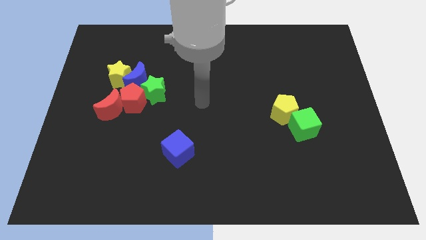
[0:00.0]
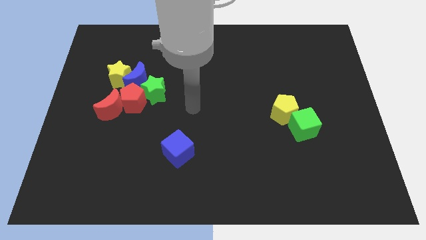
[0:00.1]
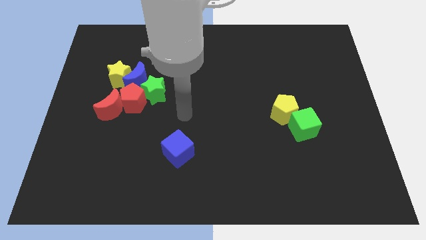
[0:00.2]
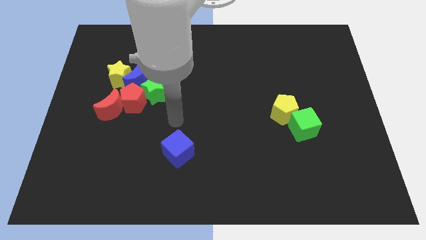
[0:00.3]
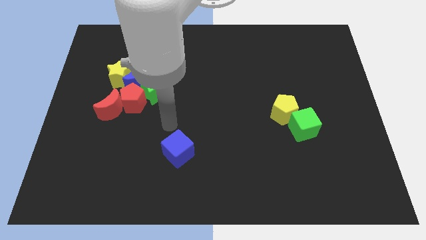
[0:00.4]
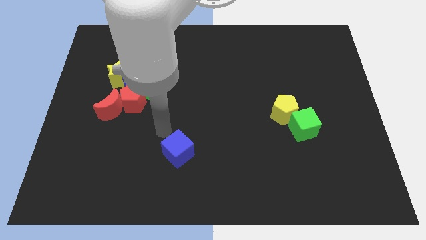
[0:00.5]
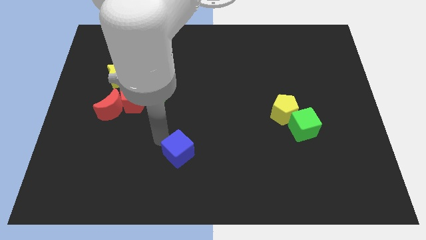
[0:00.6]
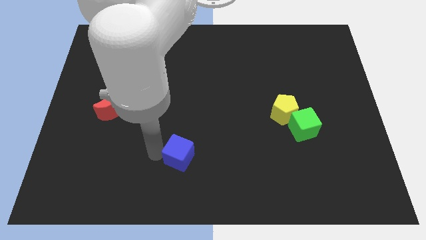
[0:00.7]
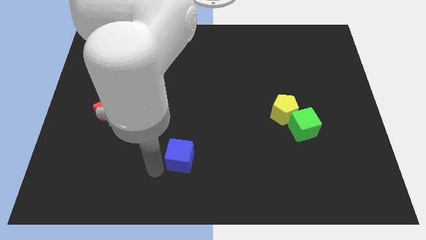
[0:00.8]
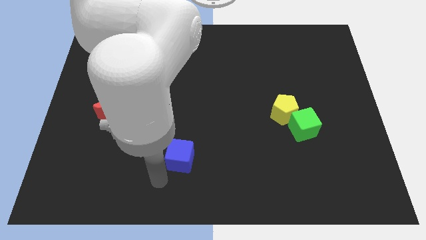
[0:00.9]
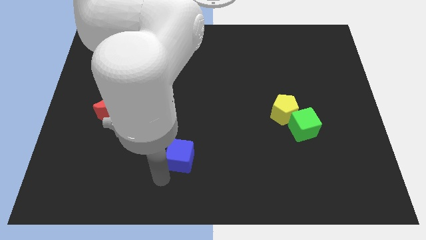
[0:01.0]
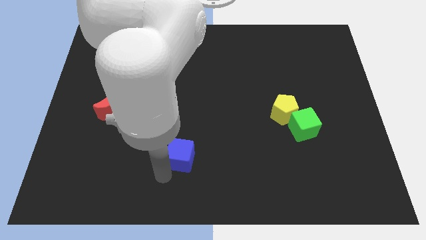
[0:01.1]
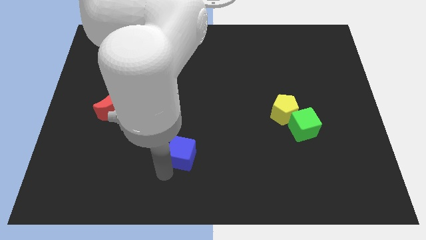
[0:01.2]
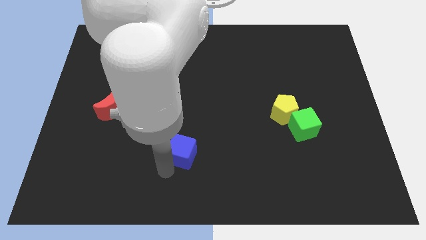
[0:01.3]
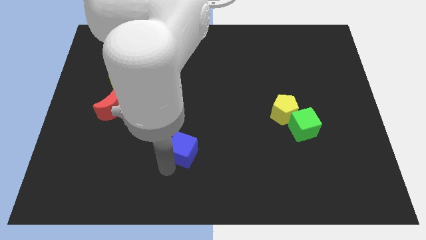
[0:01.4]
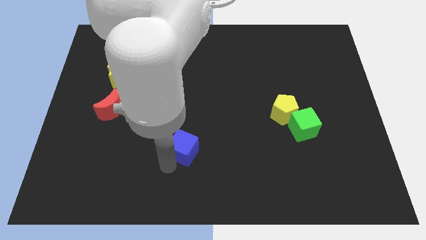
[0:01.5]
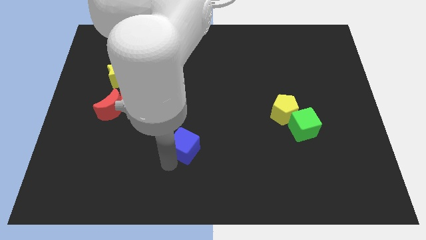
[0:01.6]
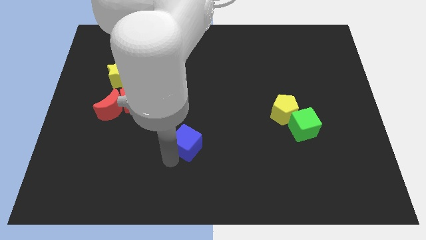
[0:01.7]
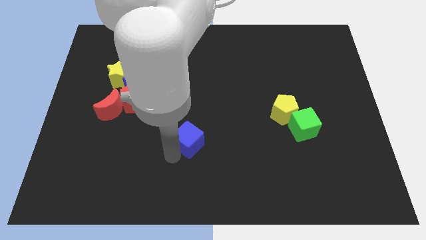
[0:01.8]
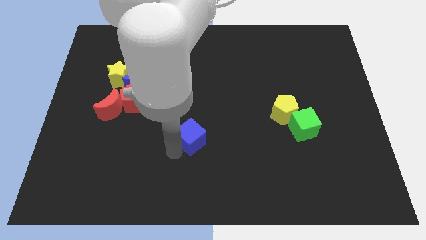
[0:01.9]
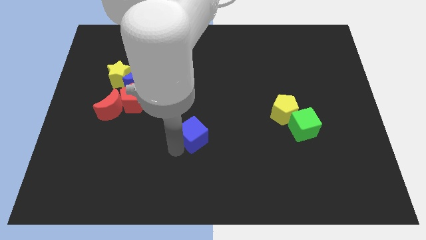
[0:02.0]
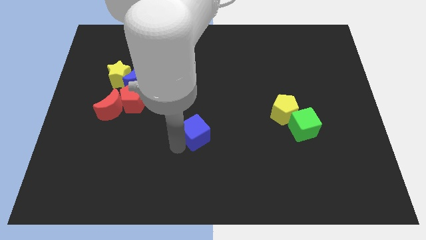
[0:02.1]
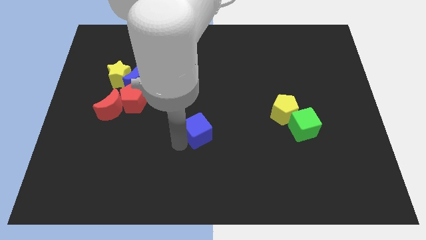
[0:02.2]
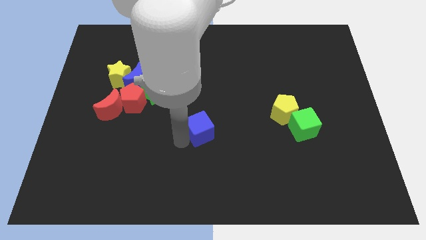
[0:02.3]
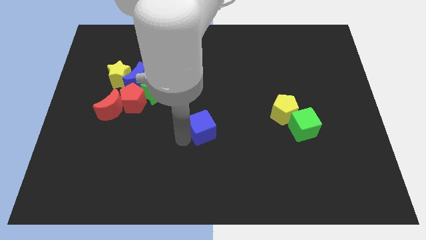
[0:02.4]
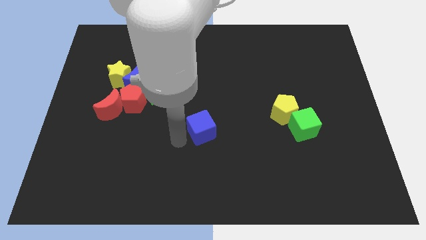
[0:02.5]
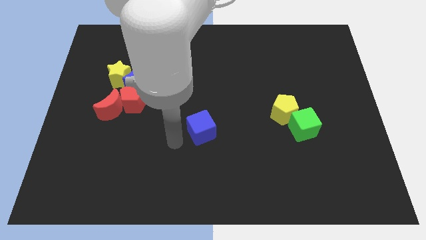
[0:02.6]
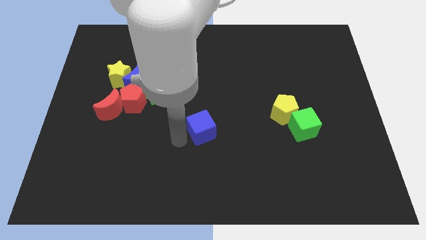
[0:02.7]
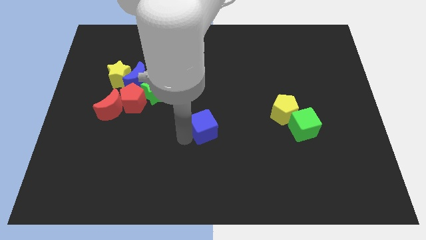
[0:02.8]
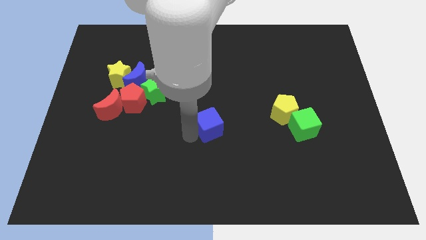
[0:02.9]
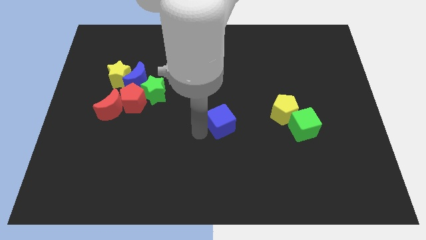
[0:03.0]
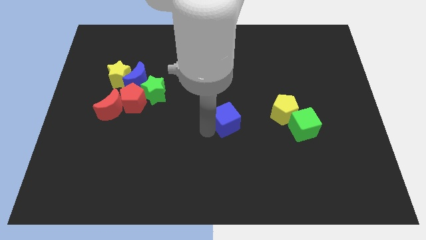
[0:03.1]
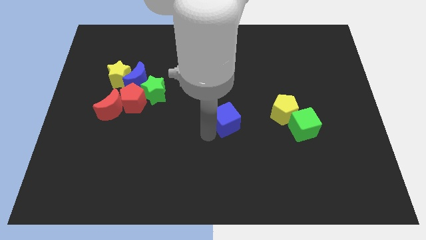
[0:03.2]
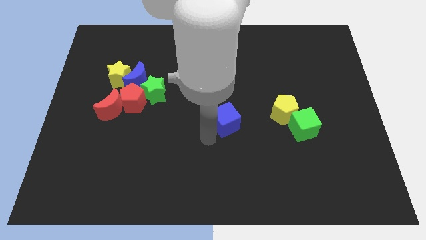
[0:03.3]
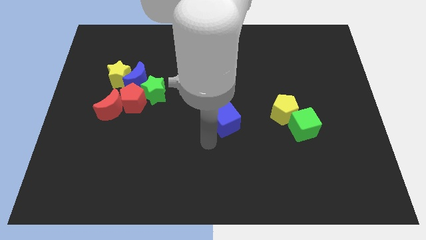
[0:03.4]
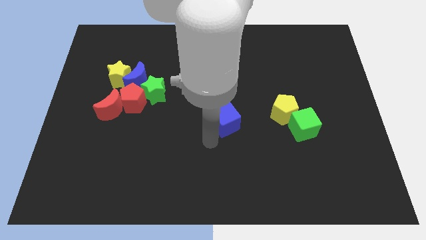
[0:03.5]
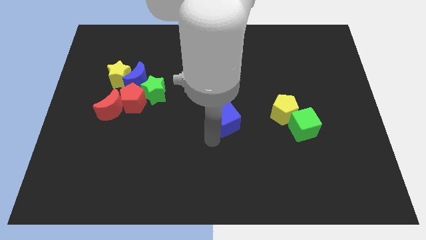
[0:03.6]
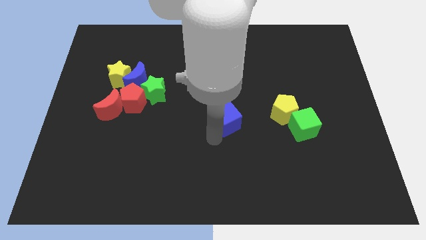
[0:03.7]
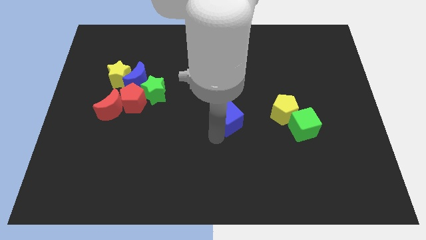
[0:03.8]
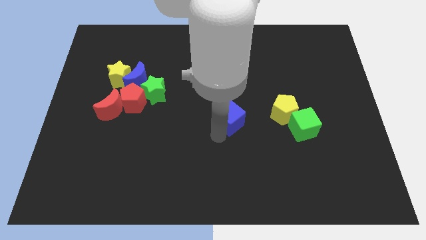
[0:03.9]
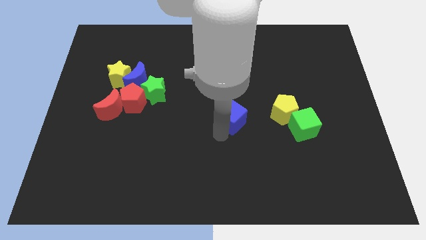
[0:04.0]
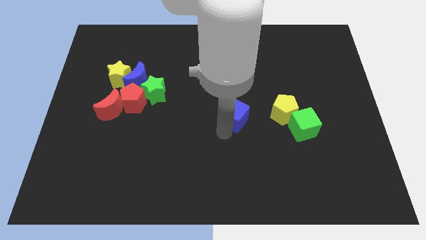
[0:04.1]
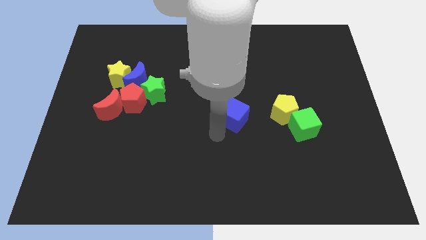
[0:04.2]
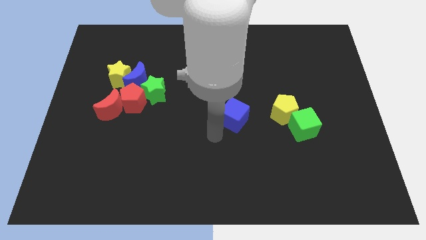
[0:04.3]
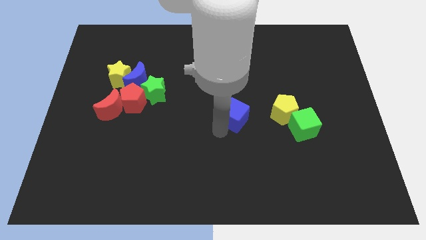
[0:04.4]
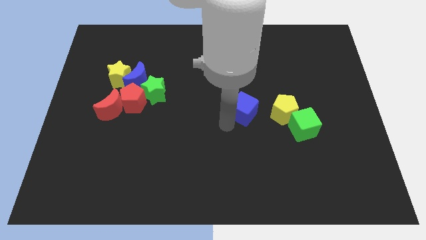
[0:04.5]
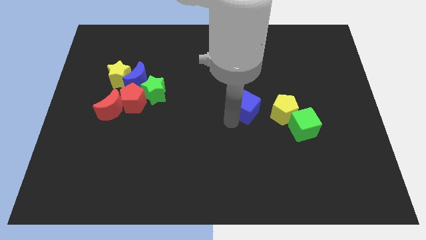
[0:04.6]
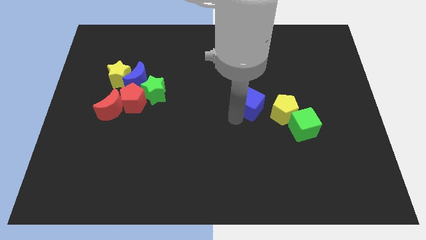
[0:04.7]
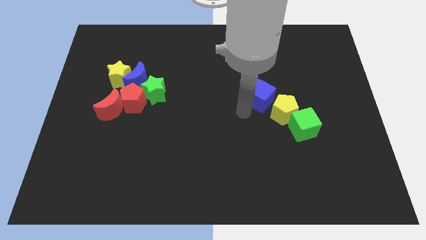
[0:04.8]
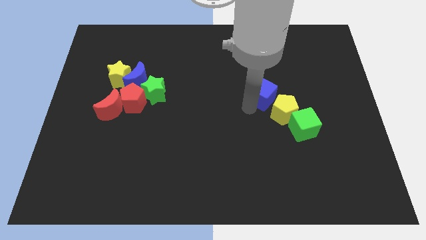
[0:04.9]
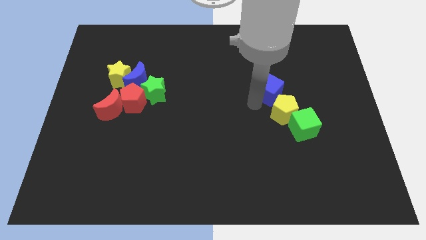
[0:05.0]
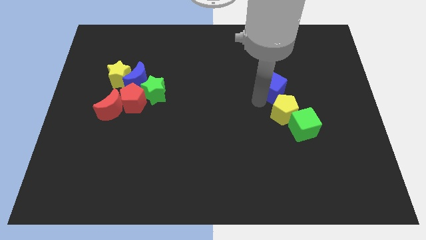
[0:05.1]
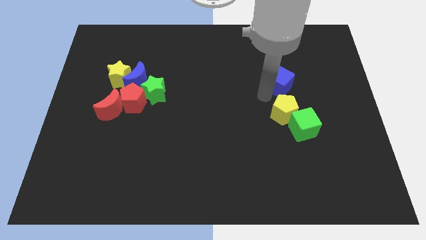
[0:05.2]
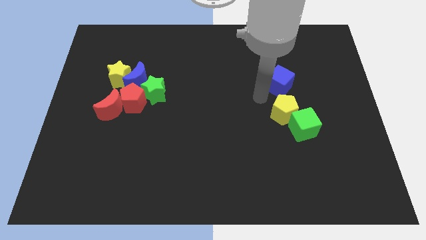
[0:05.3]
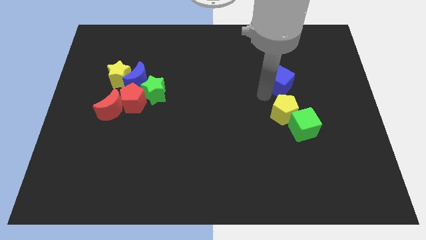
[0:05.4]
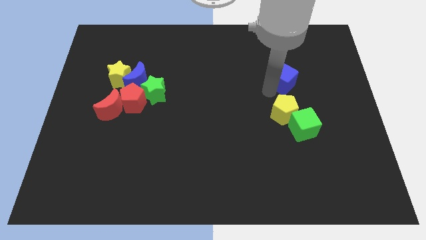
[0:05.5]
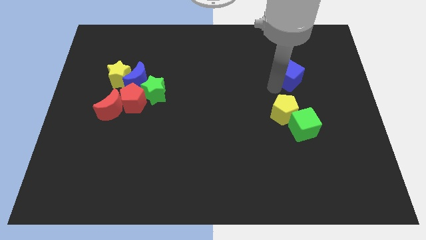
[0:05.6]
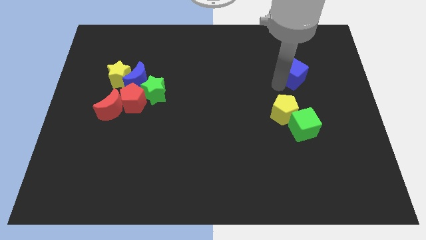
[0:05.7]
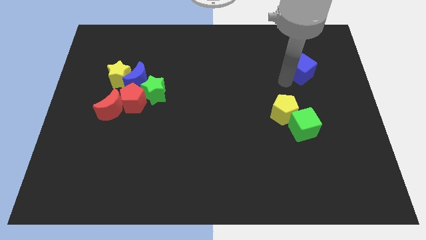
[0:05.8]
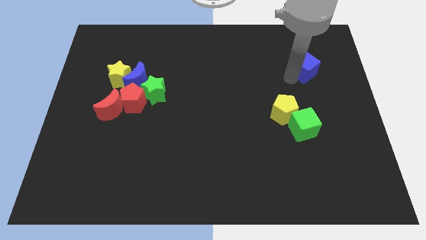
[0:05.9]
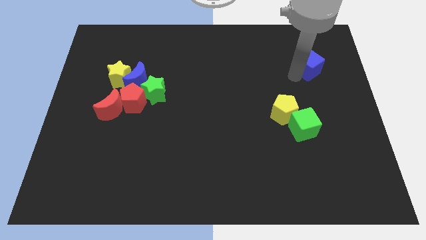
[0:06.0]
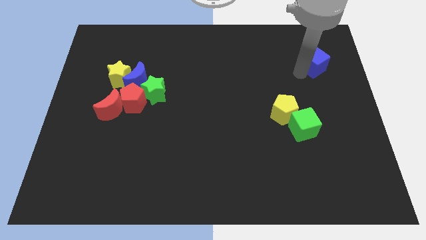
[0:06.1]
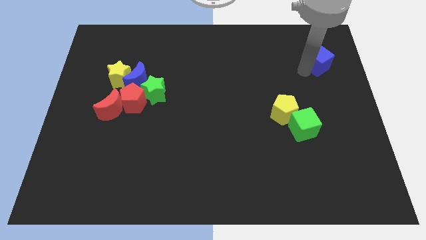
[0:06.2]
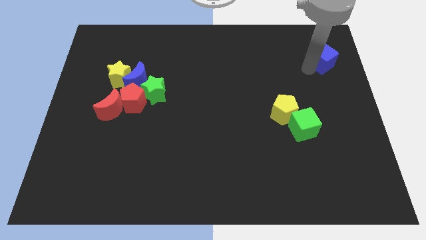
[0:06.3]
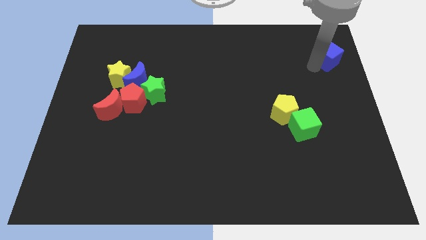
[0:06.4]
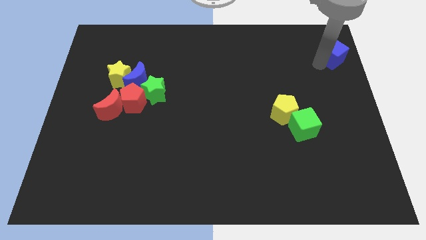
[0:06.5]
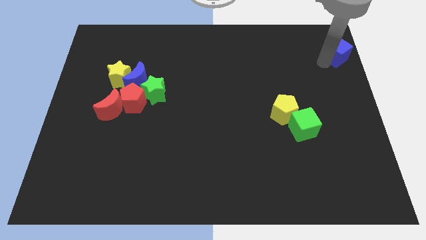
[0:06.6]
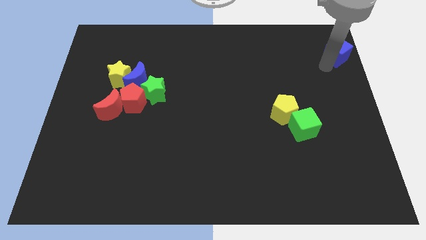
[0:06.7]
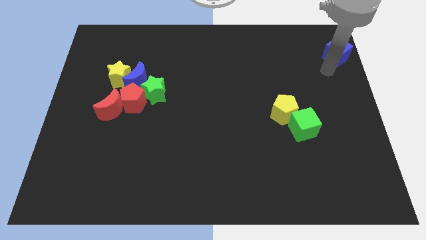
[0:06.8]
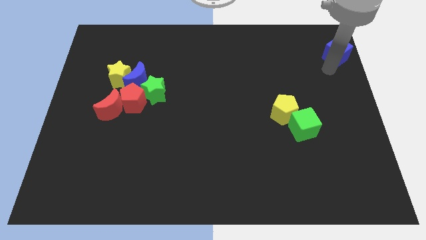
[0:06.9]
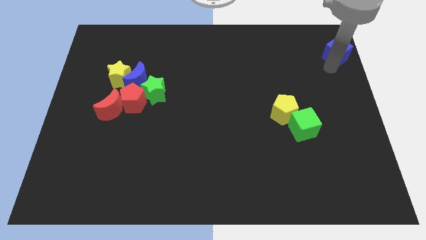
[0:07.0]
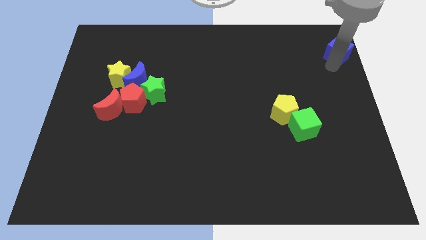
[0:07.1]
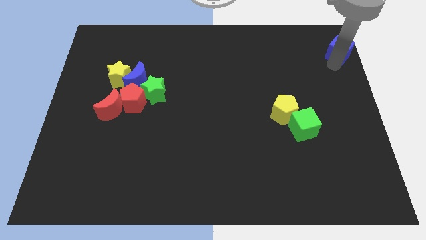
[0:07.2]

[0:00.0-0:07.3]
push the blue cube to the top right corner
